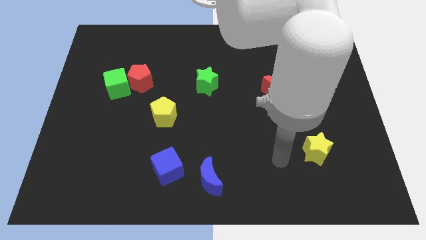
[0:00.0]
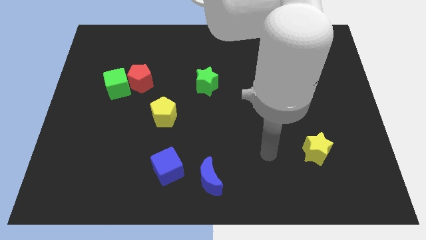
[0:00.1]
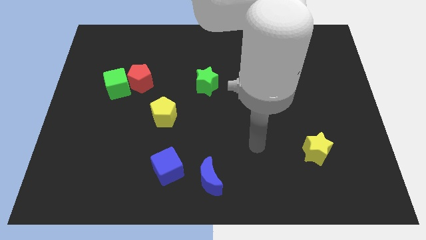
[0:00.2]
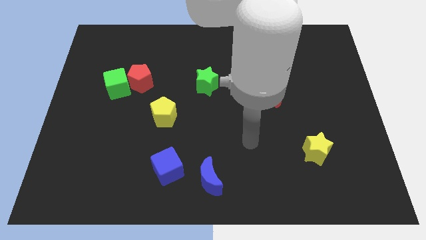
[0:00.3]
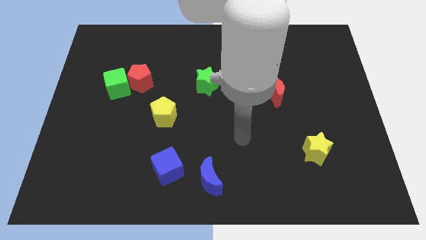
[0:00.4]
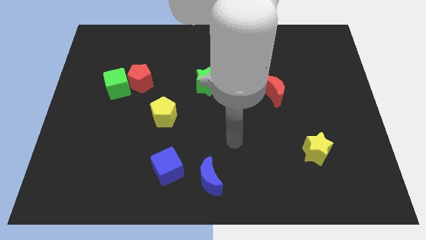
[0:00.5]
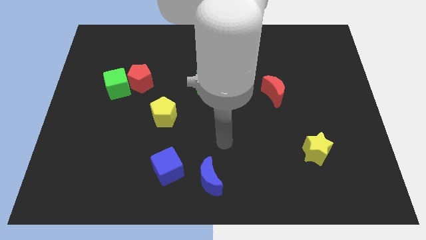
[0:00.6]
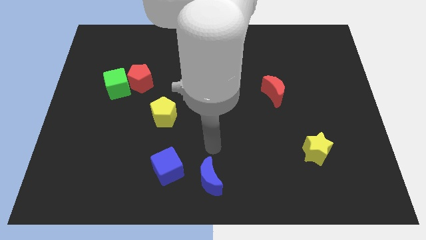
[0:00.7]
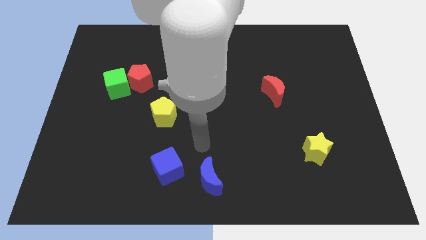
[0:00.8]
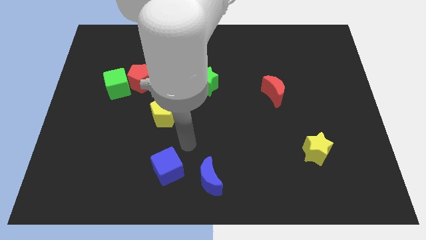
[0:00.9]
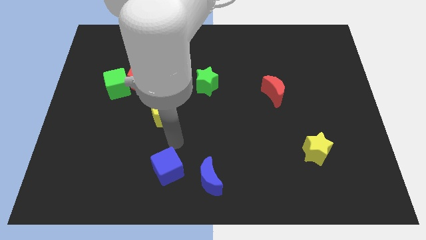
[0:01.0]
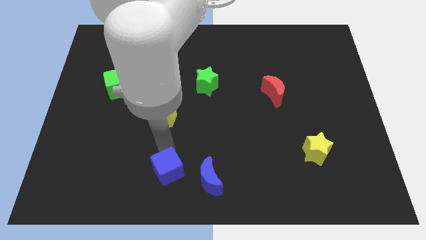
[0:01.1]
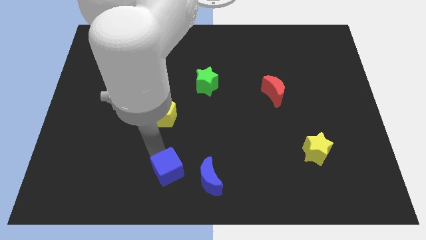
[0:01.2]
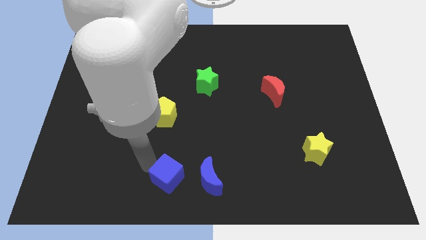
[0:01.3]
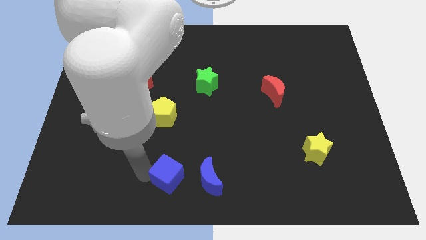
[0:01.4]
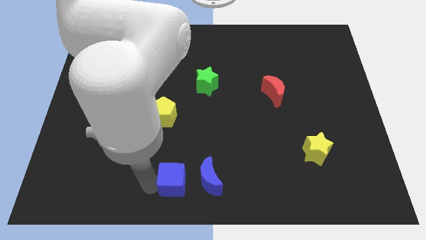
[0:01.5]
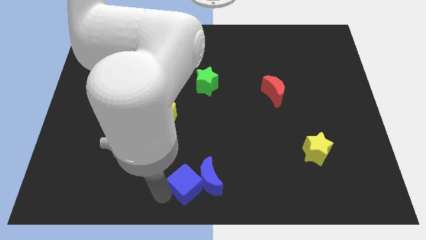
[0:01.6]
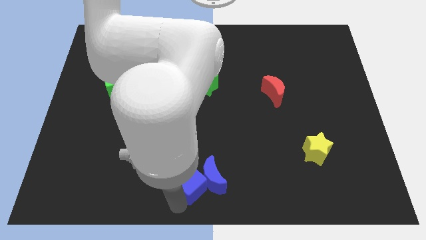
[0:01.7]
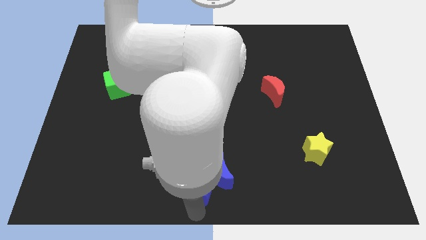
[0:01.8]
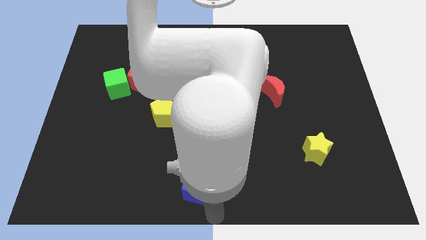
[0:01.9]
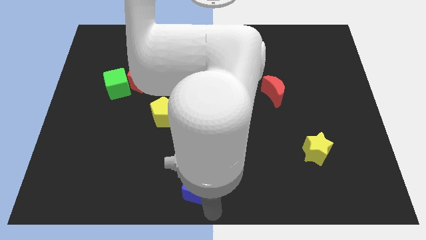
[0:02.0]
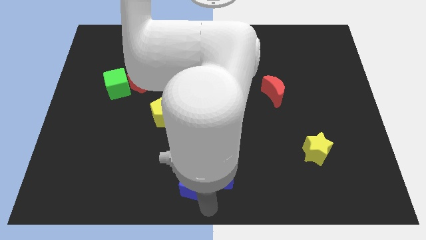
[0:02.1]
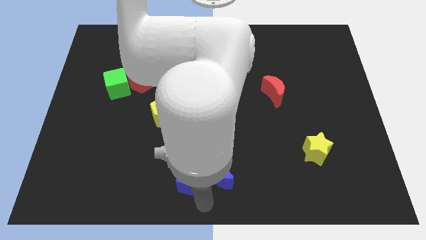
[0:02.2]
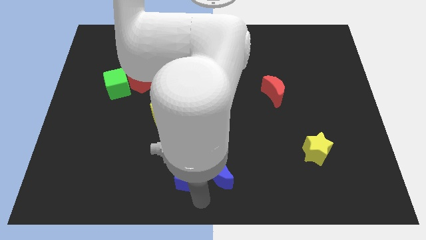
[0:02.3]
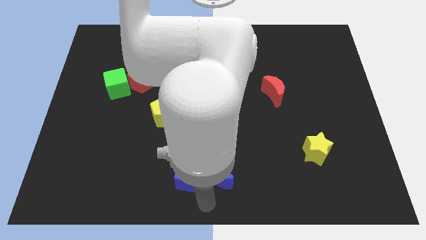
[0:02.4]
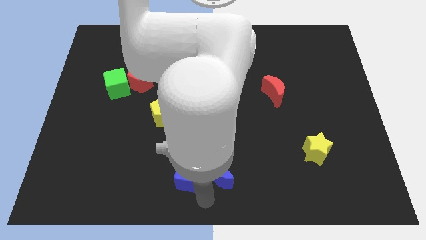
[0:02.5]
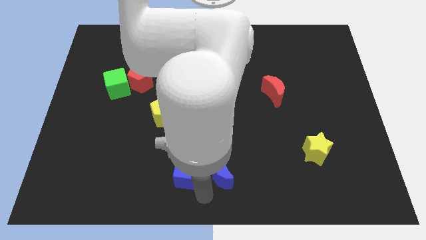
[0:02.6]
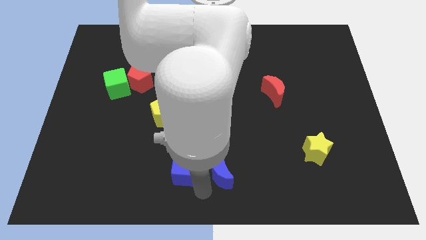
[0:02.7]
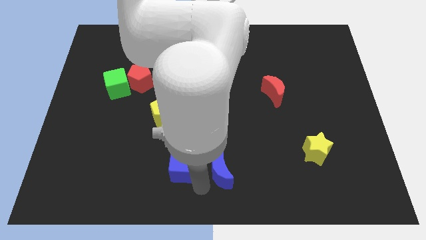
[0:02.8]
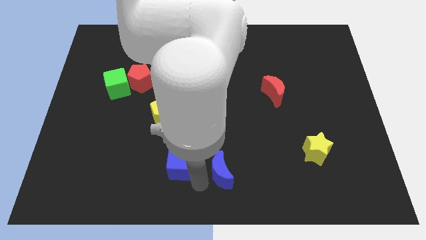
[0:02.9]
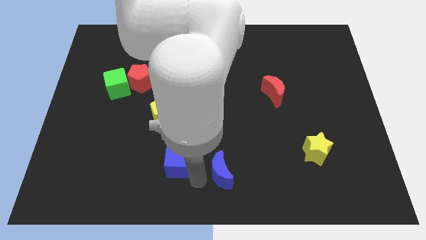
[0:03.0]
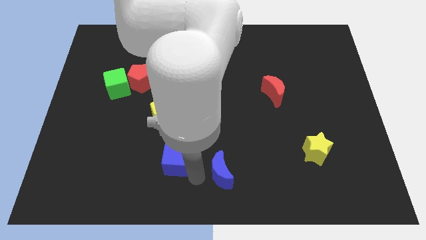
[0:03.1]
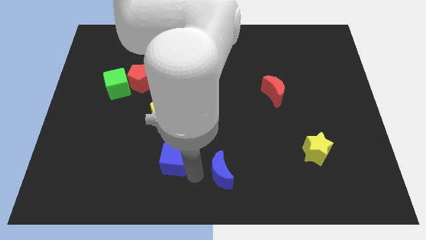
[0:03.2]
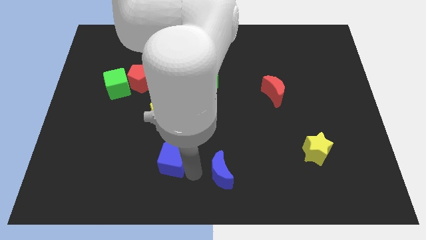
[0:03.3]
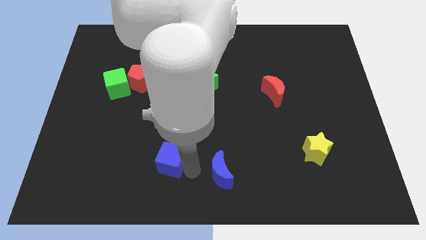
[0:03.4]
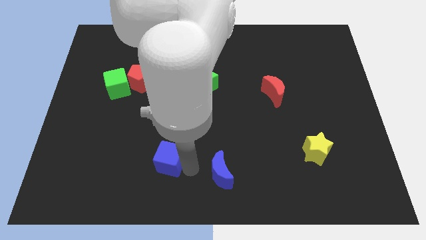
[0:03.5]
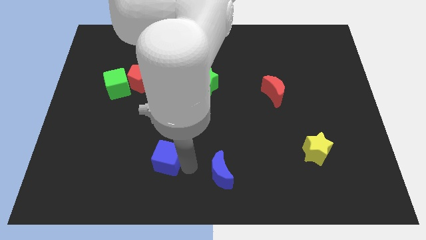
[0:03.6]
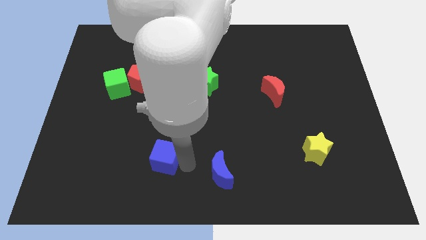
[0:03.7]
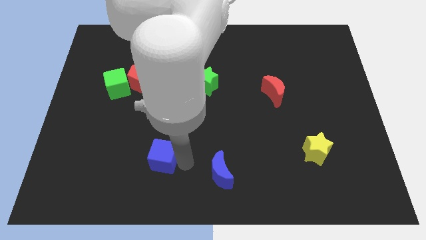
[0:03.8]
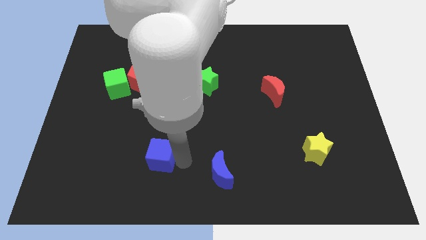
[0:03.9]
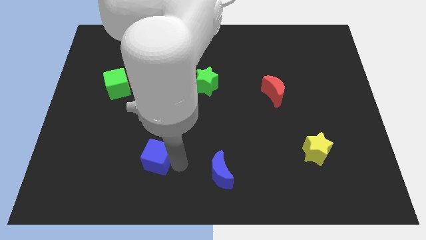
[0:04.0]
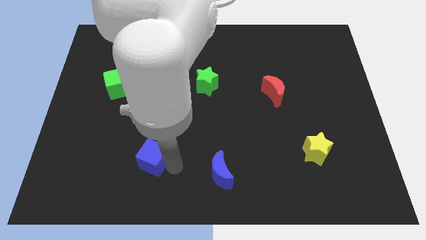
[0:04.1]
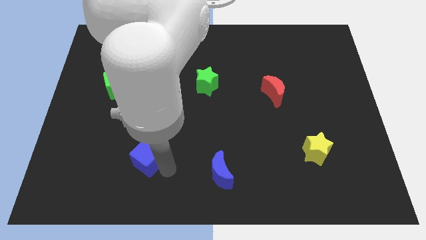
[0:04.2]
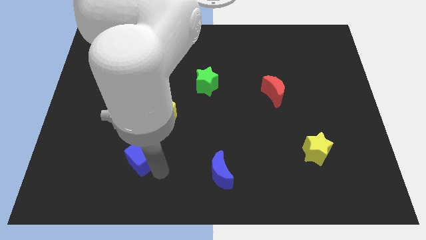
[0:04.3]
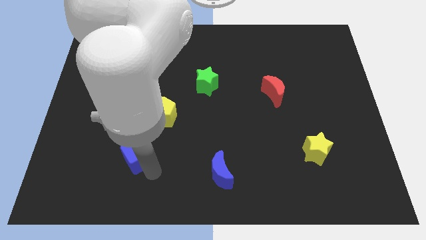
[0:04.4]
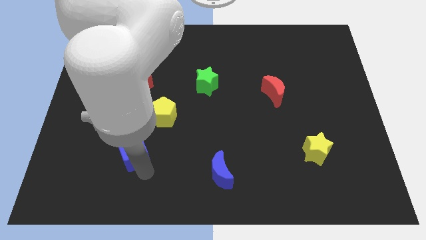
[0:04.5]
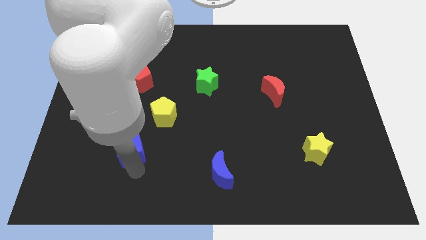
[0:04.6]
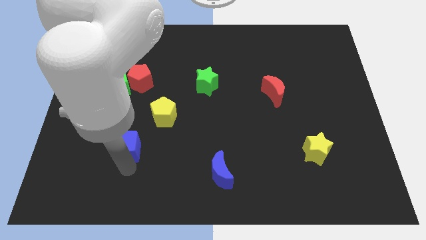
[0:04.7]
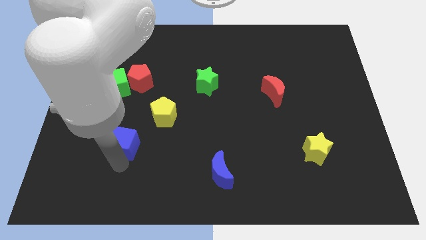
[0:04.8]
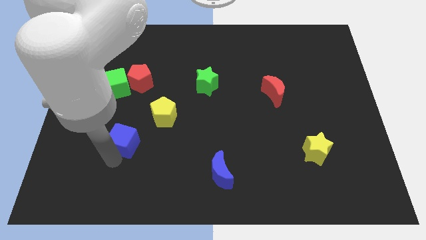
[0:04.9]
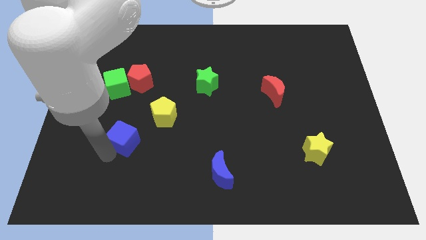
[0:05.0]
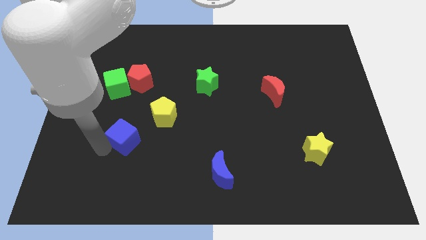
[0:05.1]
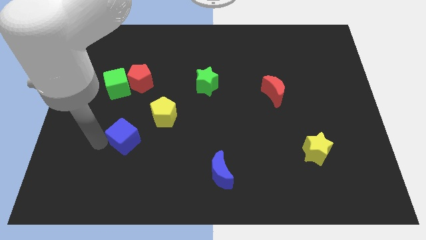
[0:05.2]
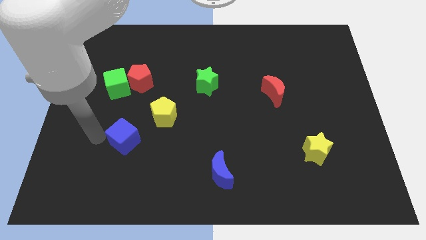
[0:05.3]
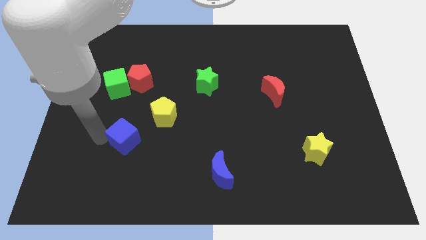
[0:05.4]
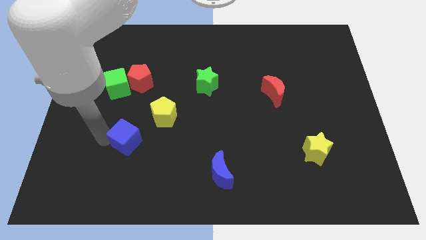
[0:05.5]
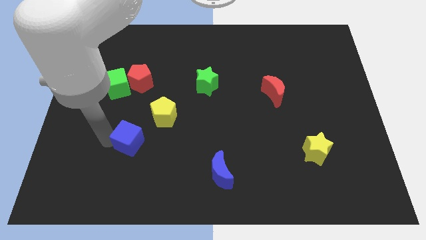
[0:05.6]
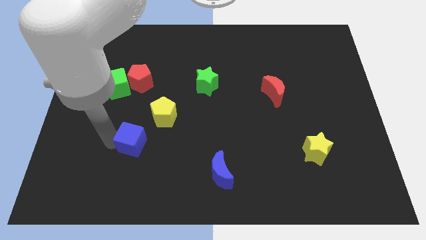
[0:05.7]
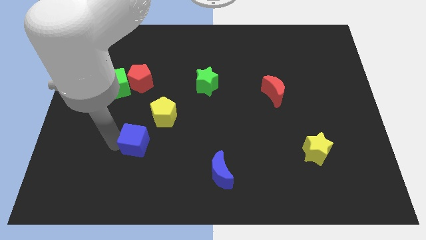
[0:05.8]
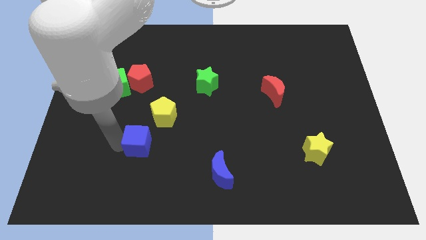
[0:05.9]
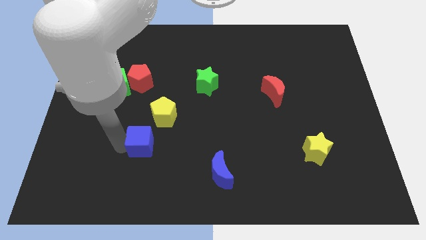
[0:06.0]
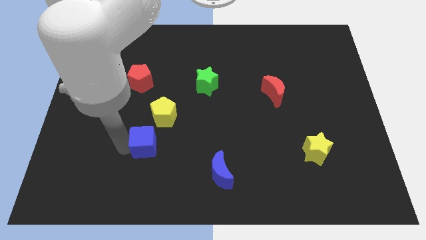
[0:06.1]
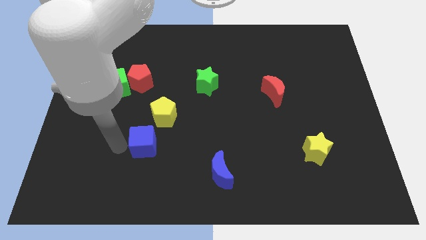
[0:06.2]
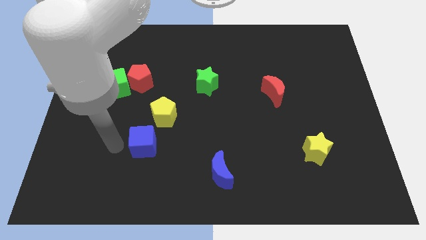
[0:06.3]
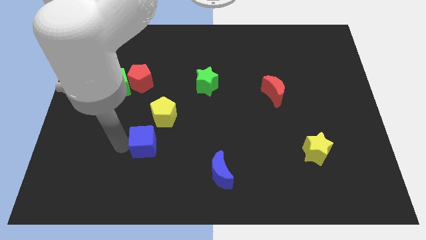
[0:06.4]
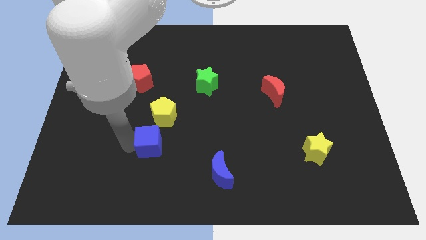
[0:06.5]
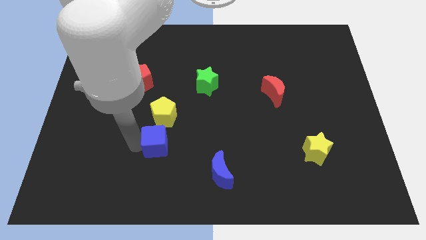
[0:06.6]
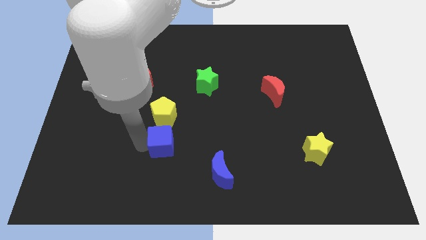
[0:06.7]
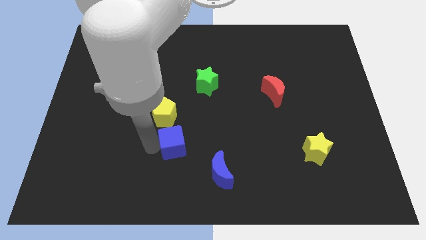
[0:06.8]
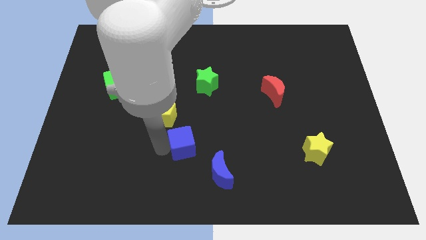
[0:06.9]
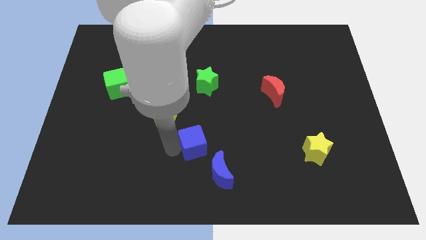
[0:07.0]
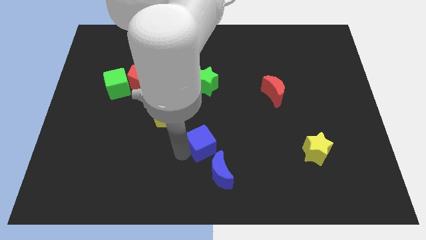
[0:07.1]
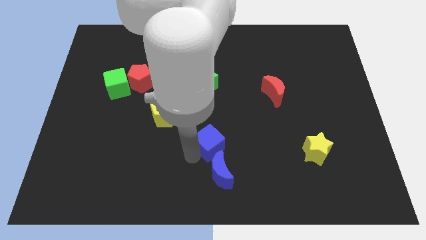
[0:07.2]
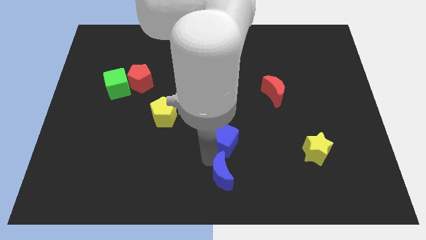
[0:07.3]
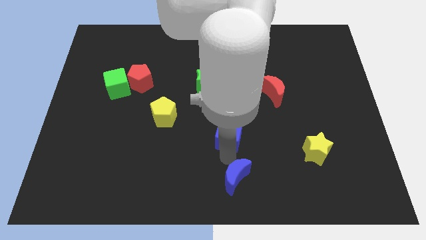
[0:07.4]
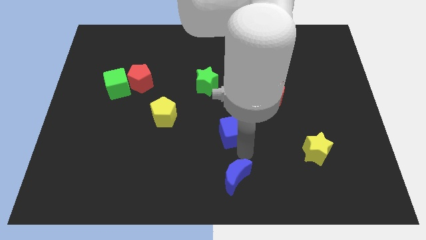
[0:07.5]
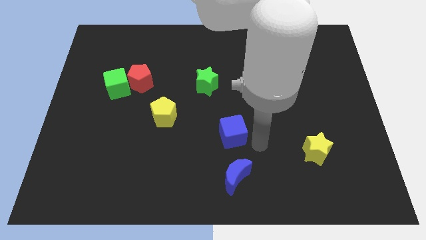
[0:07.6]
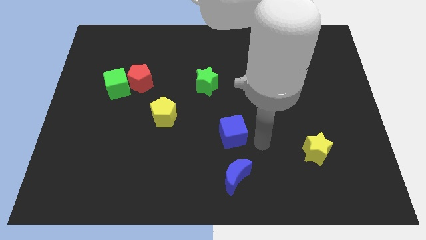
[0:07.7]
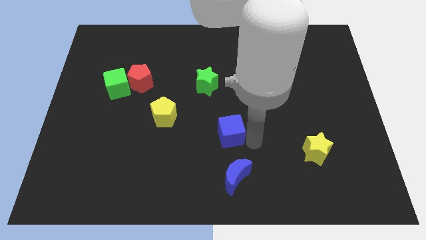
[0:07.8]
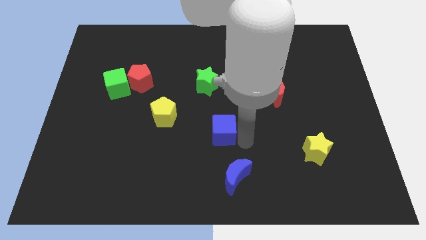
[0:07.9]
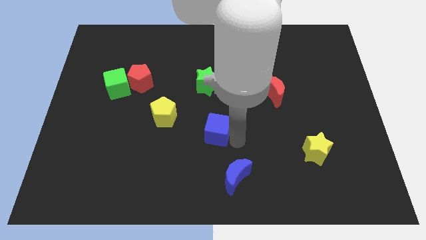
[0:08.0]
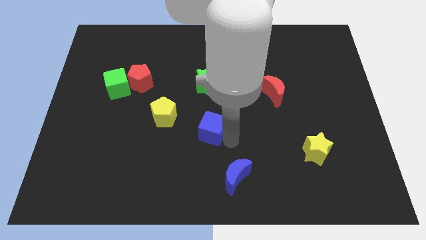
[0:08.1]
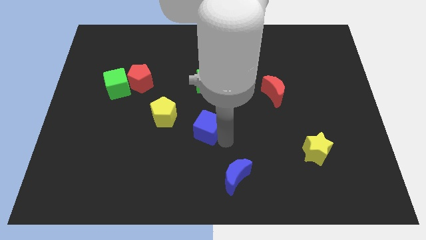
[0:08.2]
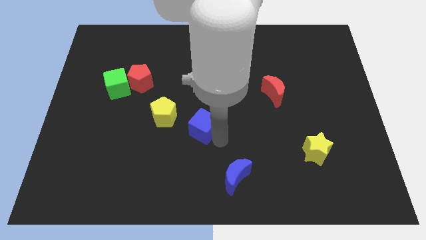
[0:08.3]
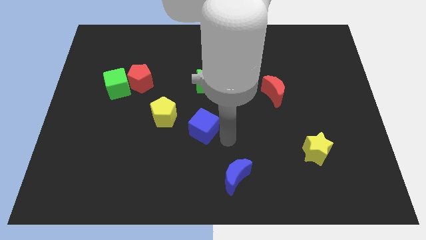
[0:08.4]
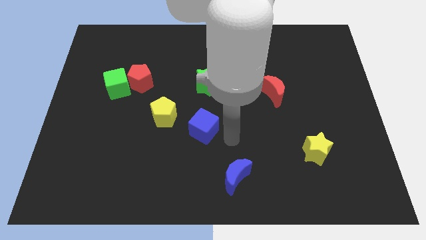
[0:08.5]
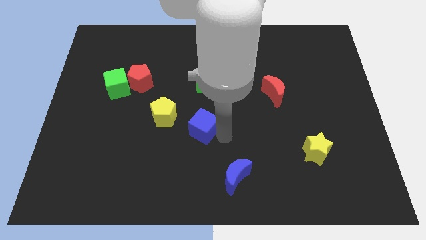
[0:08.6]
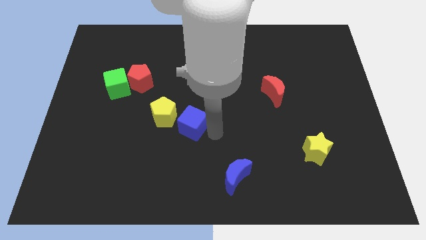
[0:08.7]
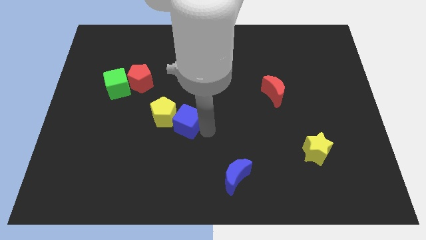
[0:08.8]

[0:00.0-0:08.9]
put the blue cube next to the yellow pentagon
